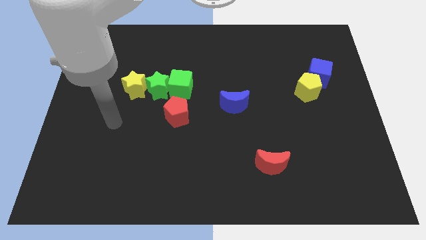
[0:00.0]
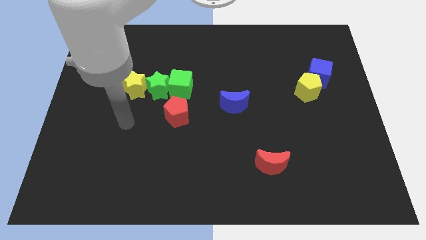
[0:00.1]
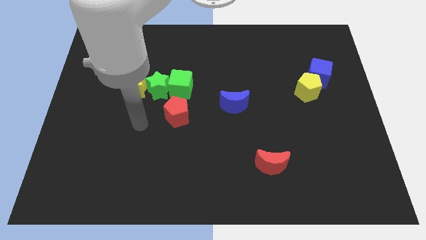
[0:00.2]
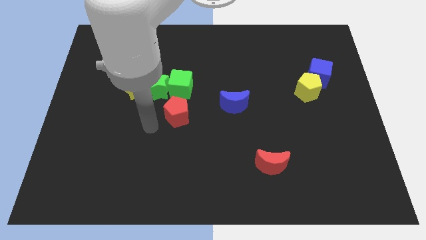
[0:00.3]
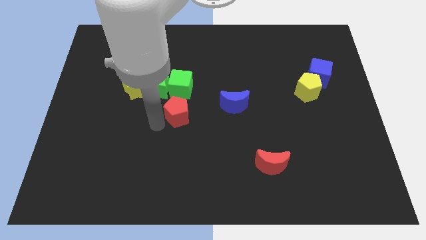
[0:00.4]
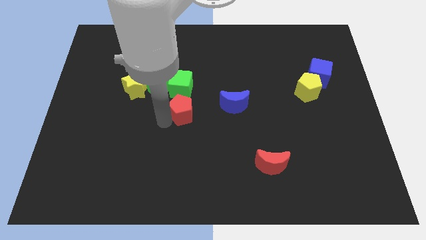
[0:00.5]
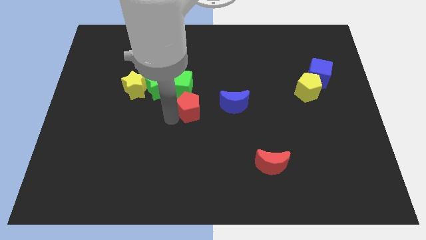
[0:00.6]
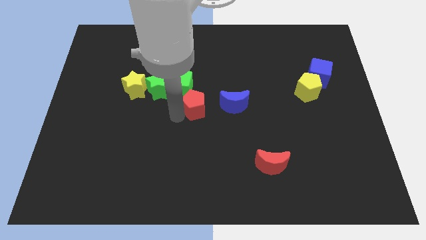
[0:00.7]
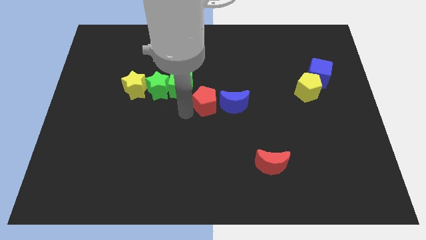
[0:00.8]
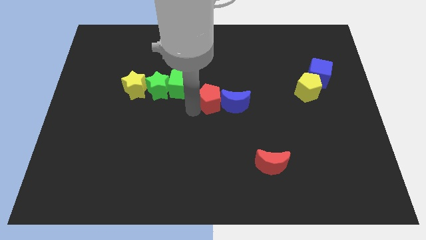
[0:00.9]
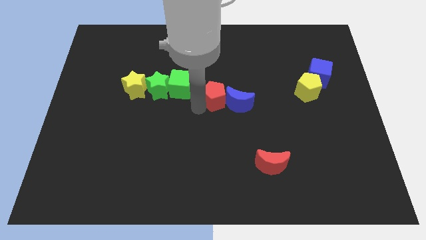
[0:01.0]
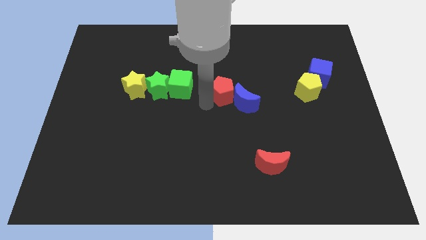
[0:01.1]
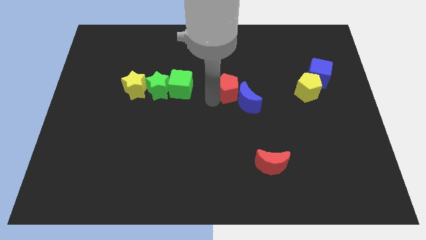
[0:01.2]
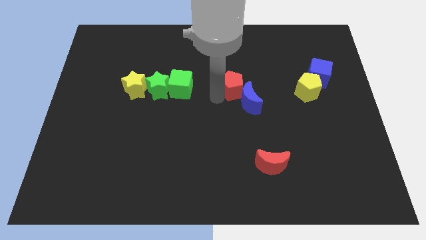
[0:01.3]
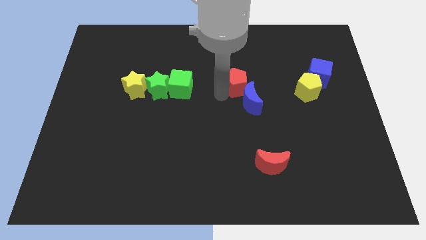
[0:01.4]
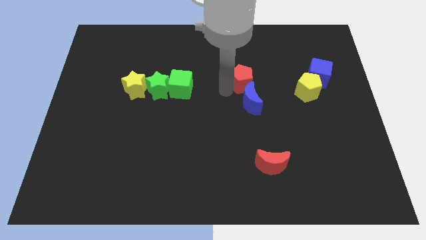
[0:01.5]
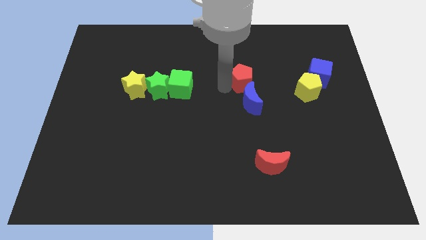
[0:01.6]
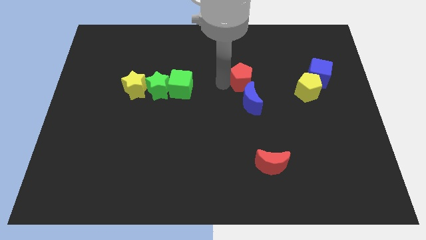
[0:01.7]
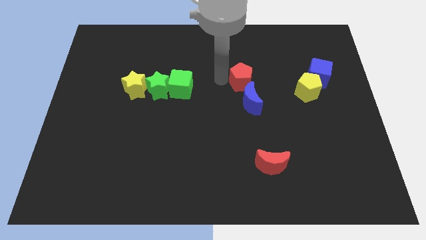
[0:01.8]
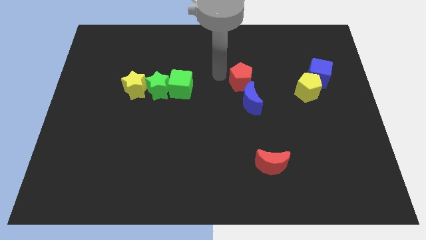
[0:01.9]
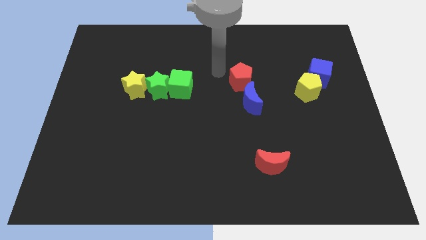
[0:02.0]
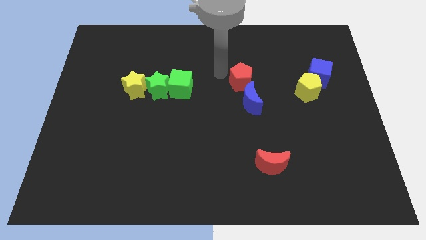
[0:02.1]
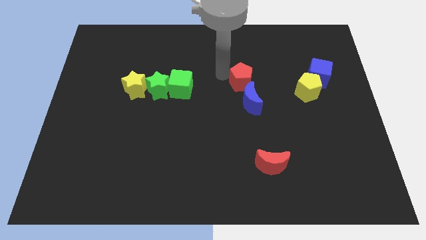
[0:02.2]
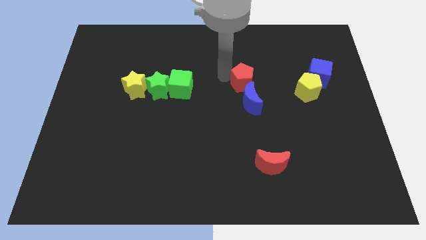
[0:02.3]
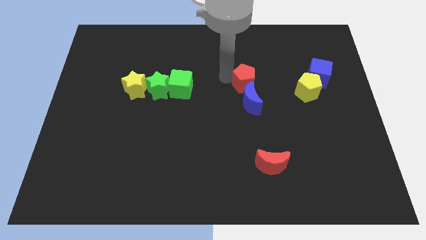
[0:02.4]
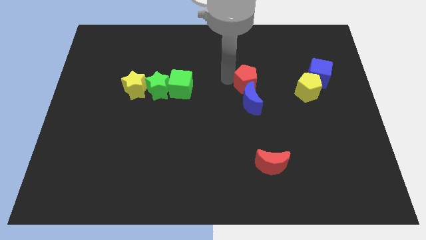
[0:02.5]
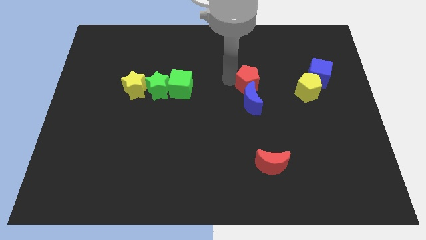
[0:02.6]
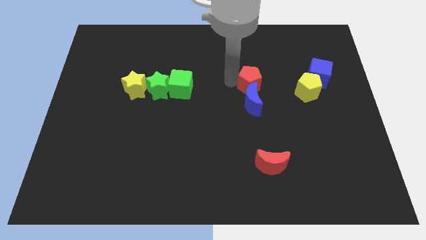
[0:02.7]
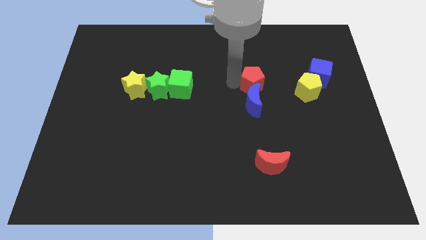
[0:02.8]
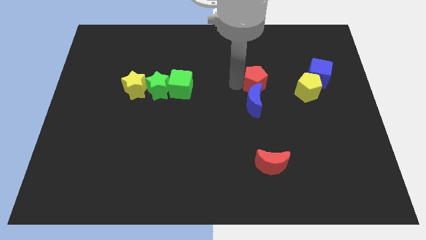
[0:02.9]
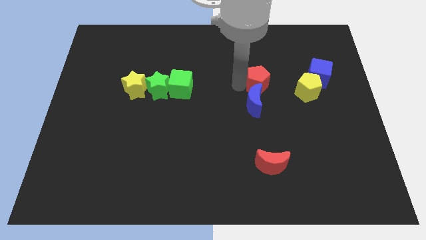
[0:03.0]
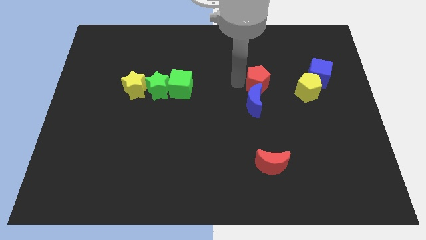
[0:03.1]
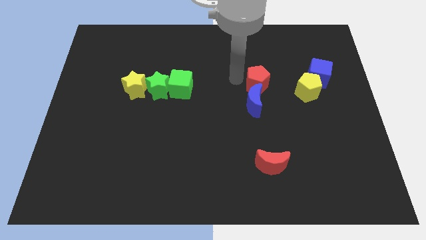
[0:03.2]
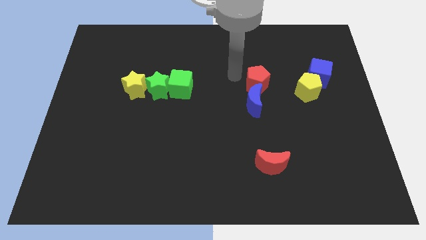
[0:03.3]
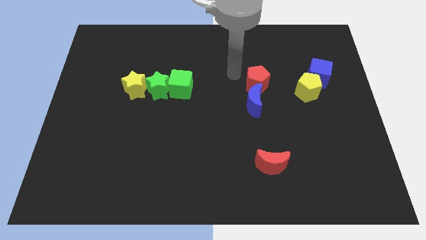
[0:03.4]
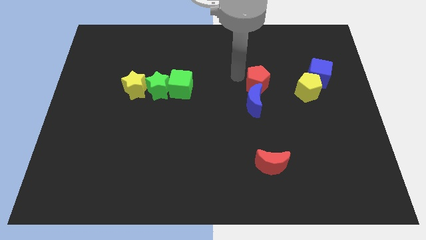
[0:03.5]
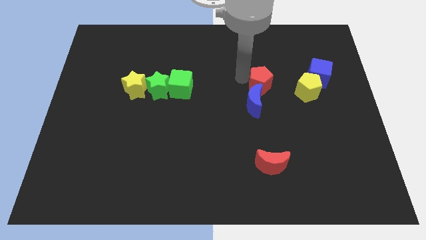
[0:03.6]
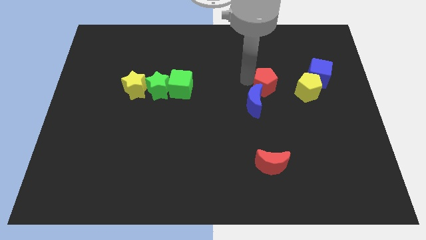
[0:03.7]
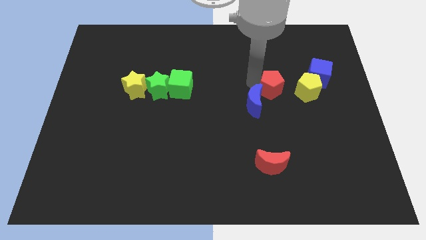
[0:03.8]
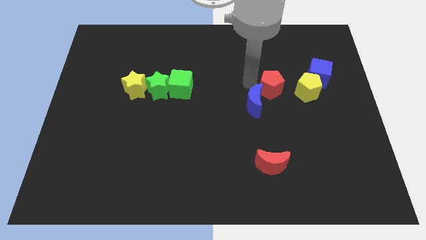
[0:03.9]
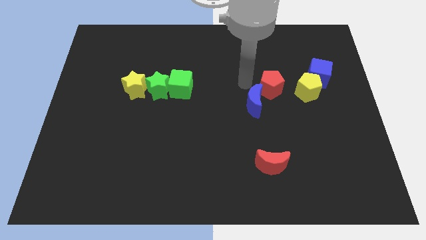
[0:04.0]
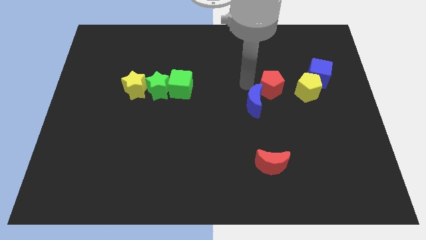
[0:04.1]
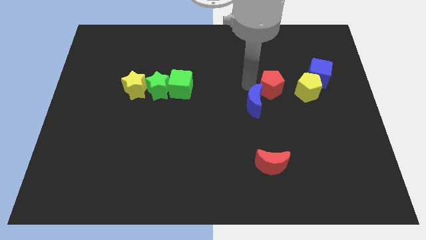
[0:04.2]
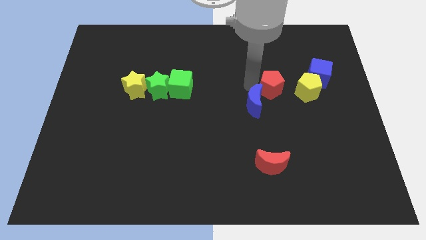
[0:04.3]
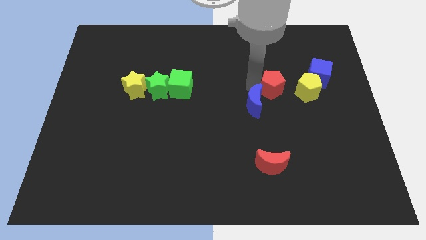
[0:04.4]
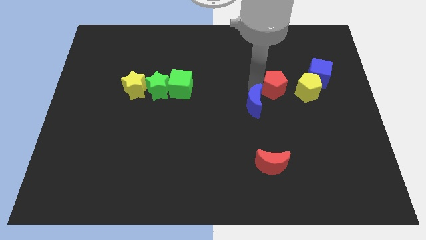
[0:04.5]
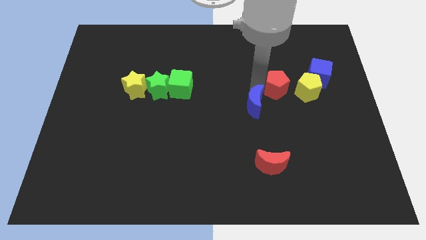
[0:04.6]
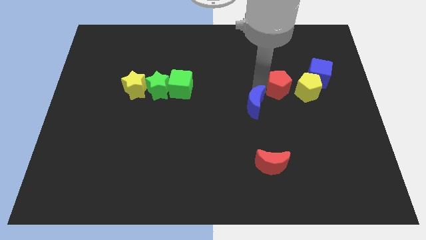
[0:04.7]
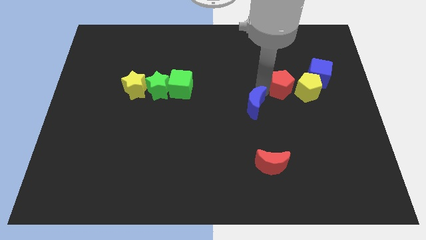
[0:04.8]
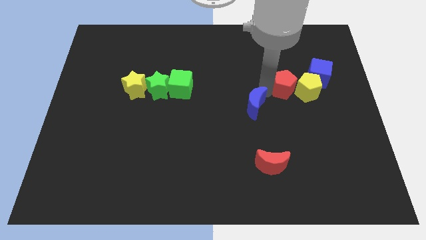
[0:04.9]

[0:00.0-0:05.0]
slide the red pentagon next to the yellow pentagon

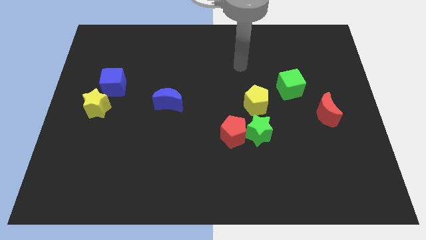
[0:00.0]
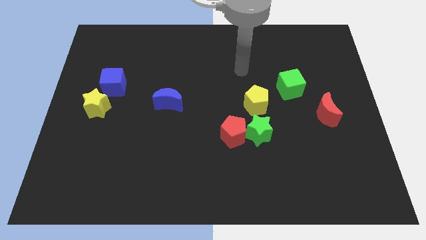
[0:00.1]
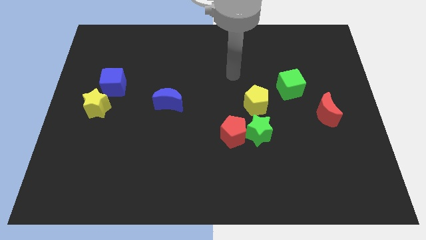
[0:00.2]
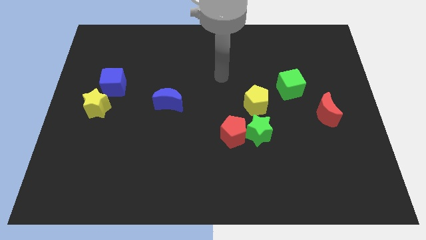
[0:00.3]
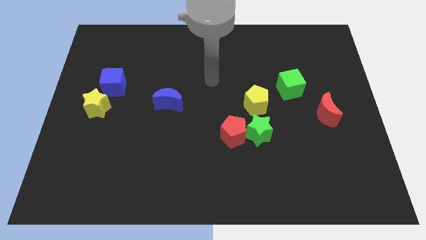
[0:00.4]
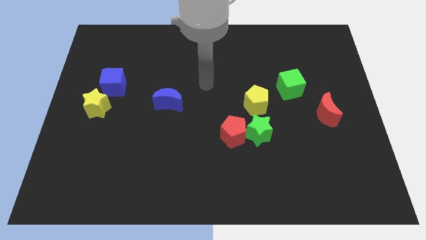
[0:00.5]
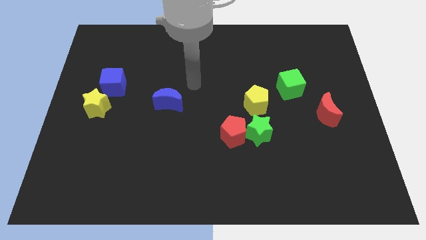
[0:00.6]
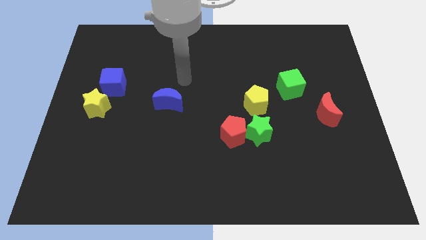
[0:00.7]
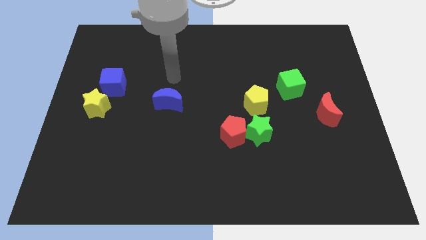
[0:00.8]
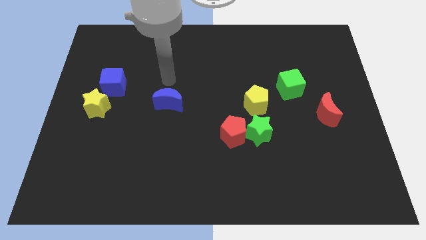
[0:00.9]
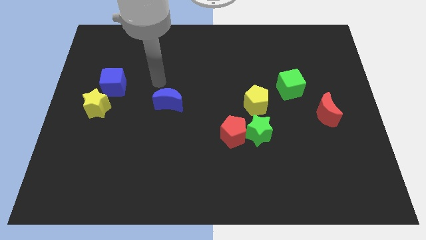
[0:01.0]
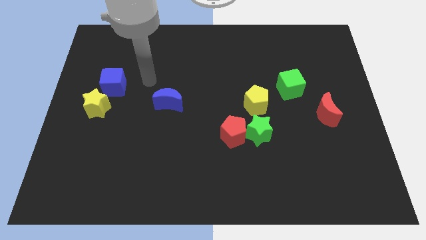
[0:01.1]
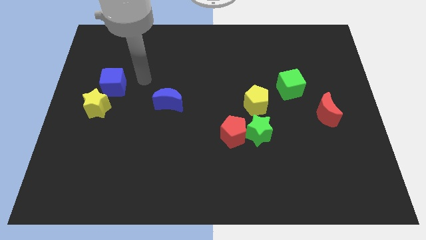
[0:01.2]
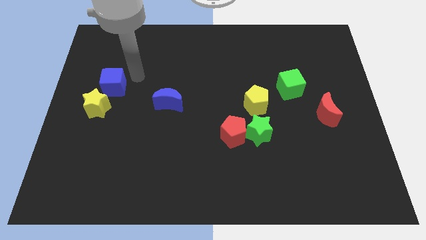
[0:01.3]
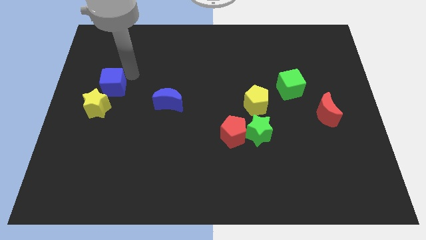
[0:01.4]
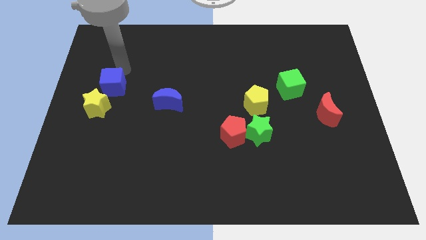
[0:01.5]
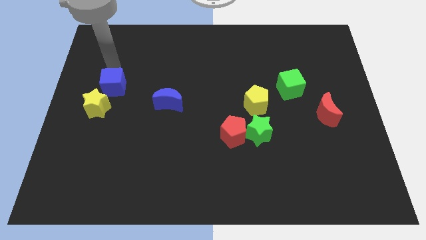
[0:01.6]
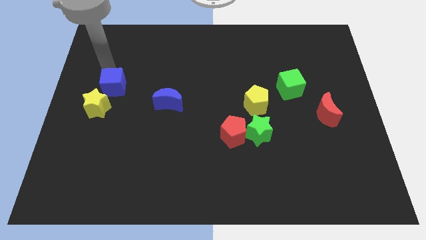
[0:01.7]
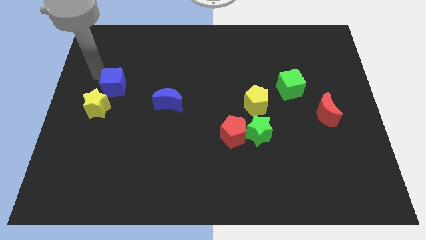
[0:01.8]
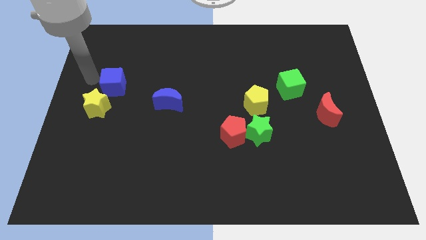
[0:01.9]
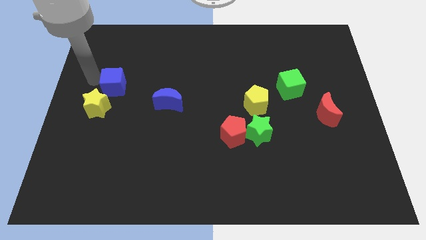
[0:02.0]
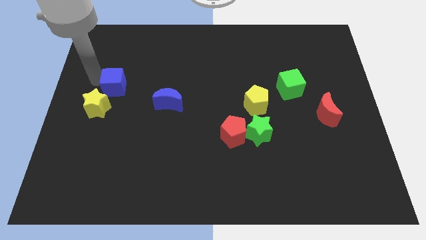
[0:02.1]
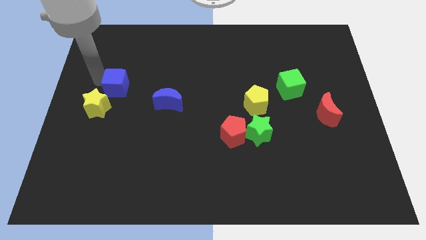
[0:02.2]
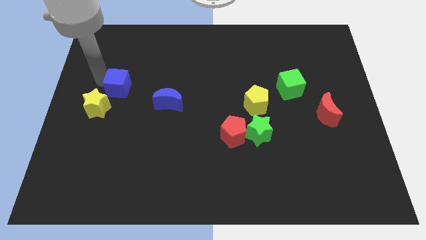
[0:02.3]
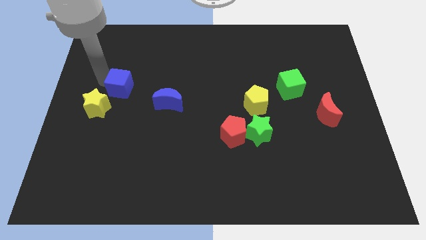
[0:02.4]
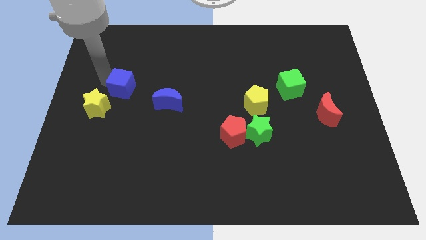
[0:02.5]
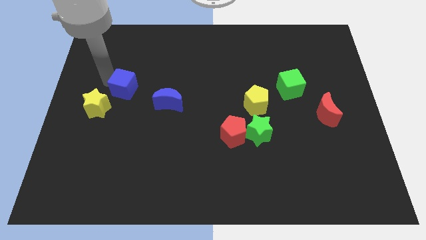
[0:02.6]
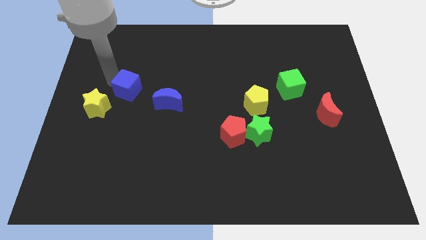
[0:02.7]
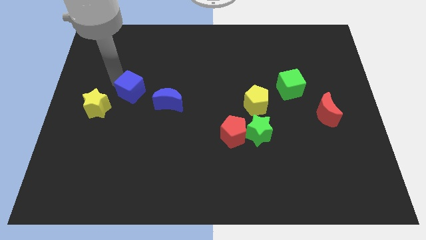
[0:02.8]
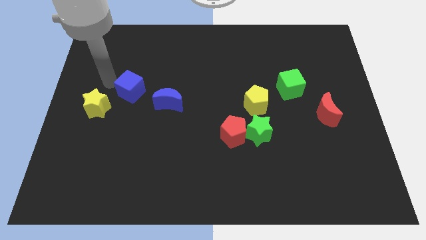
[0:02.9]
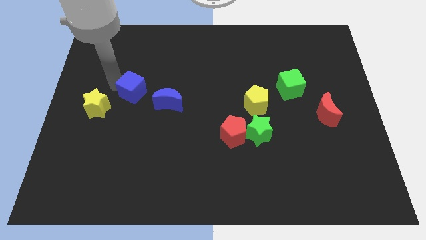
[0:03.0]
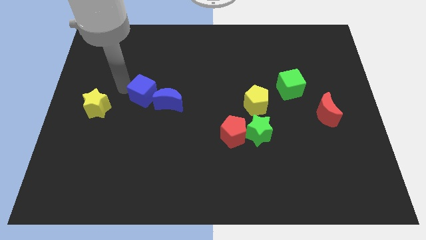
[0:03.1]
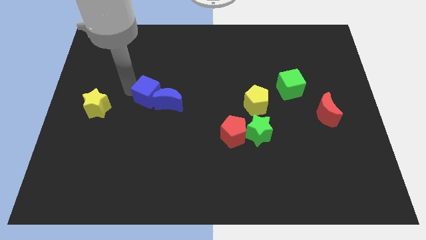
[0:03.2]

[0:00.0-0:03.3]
put the blue cube close to the blue moon
